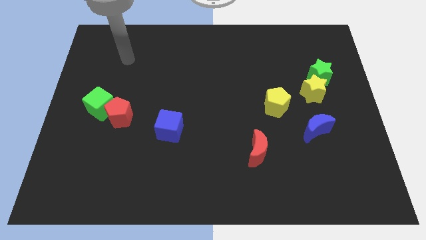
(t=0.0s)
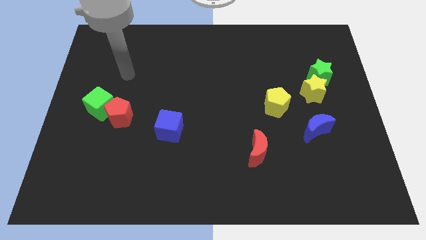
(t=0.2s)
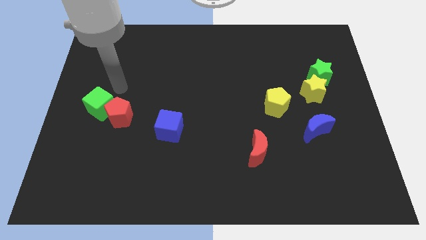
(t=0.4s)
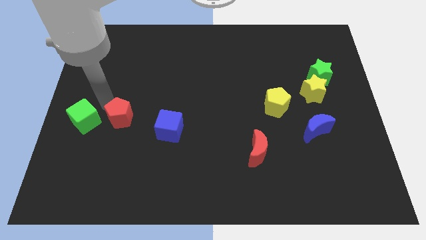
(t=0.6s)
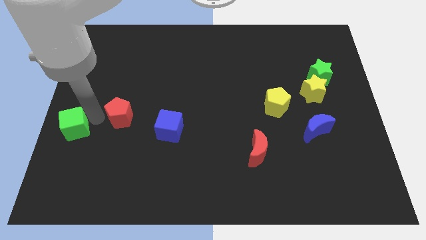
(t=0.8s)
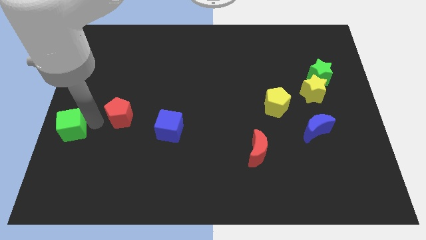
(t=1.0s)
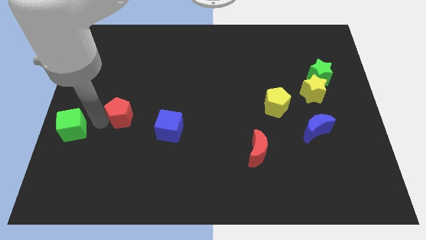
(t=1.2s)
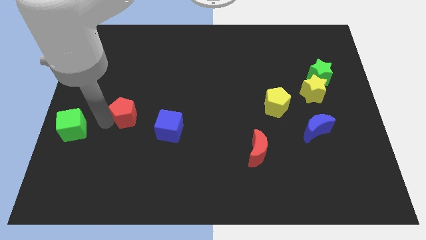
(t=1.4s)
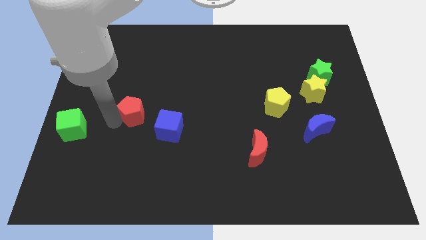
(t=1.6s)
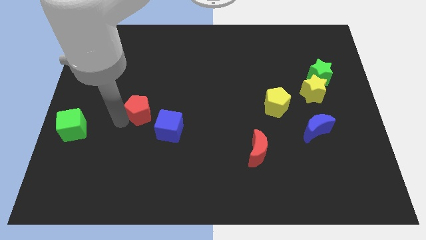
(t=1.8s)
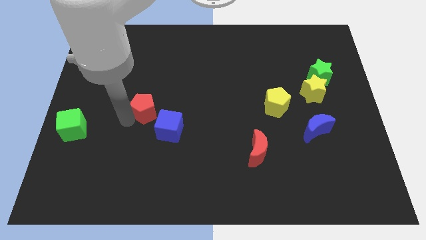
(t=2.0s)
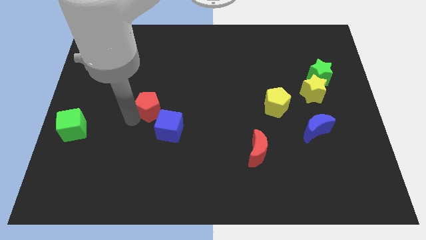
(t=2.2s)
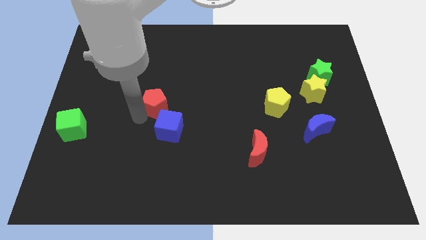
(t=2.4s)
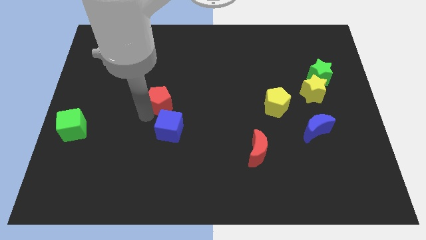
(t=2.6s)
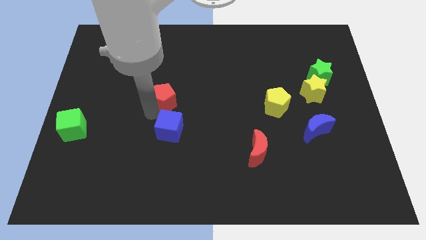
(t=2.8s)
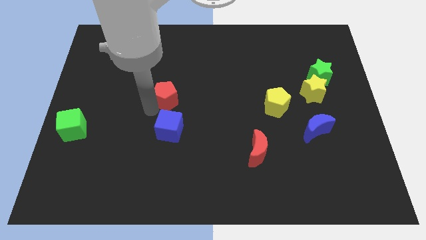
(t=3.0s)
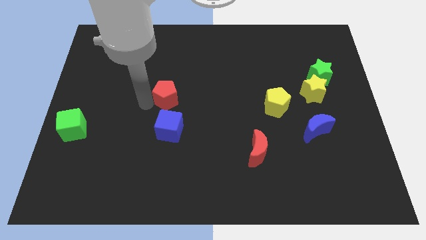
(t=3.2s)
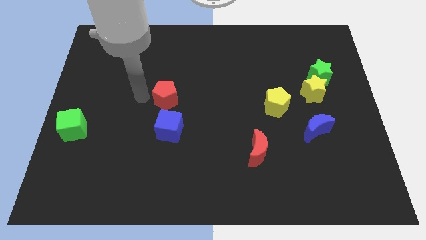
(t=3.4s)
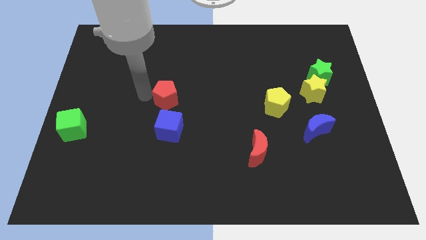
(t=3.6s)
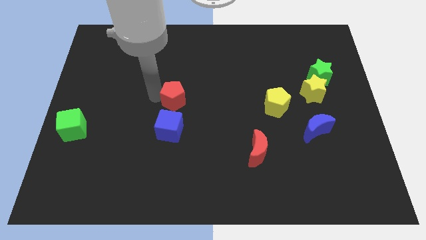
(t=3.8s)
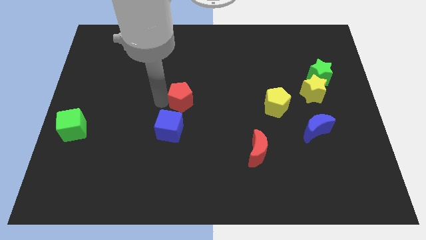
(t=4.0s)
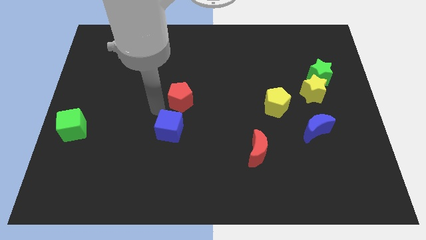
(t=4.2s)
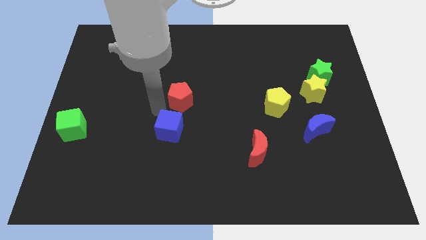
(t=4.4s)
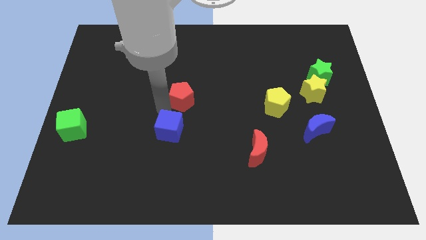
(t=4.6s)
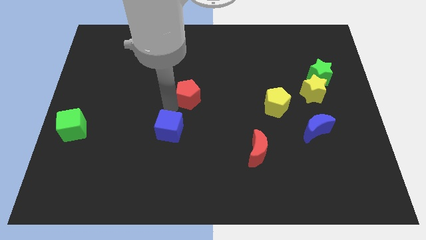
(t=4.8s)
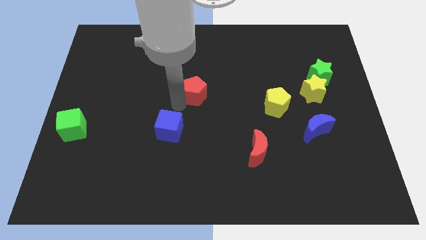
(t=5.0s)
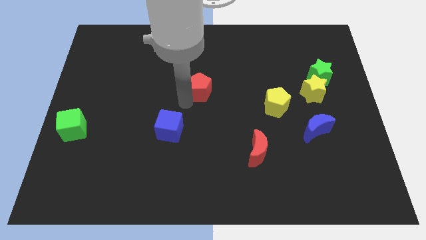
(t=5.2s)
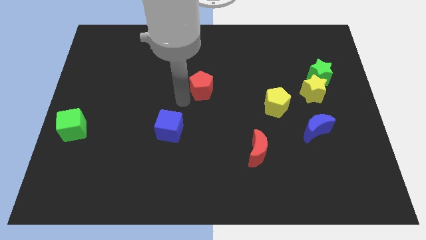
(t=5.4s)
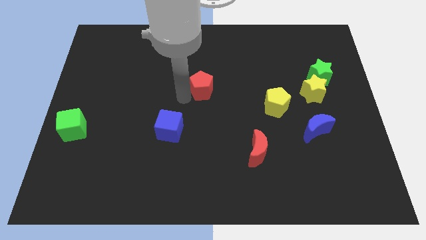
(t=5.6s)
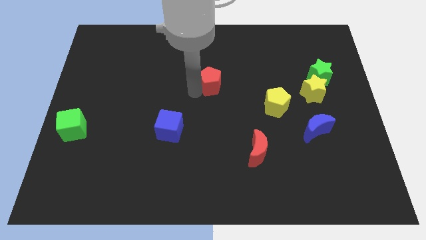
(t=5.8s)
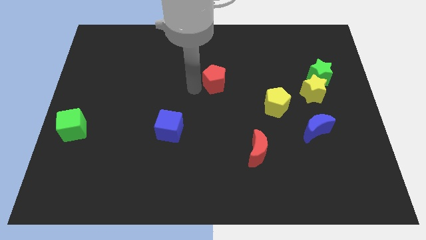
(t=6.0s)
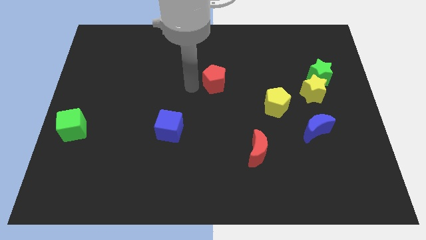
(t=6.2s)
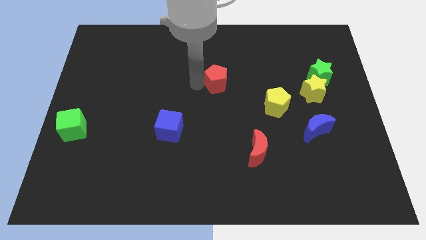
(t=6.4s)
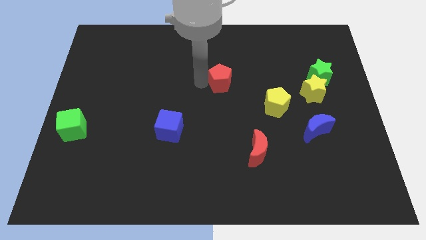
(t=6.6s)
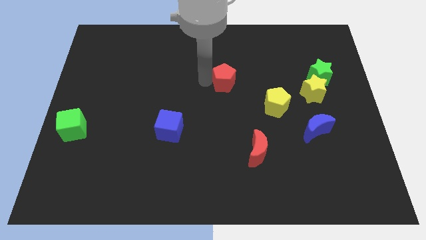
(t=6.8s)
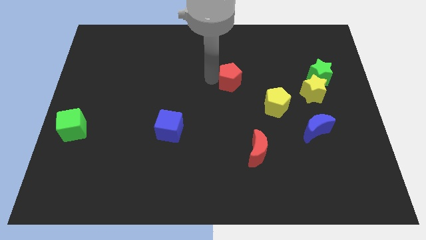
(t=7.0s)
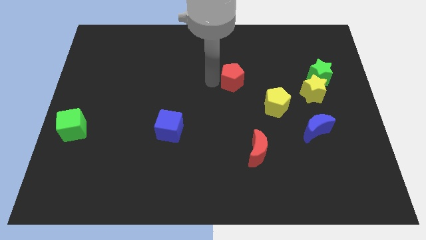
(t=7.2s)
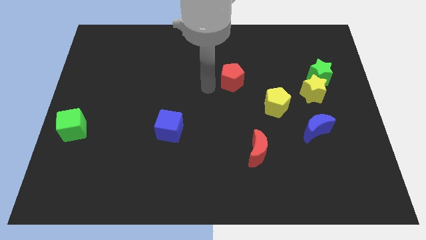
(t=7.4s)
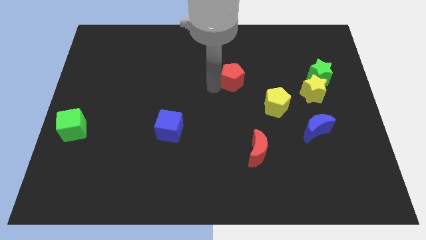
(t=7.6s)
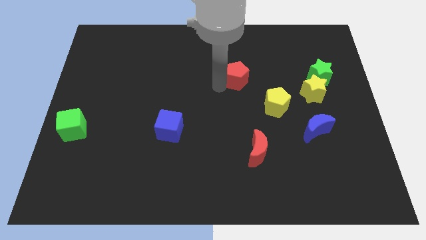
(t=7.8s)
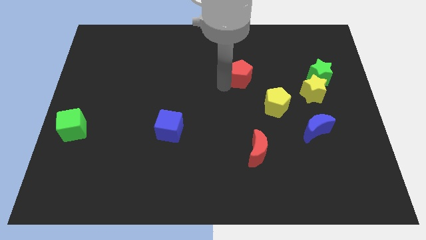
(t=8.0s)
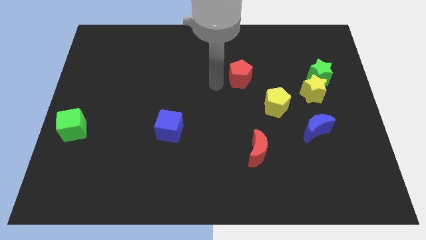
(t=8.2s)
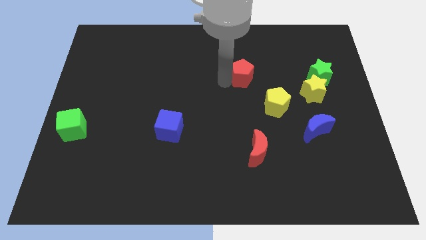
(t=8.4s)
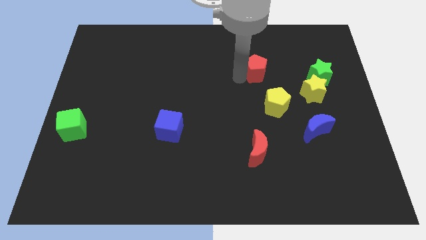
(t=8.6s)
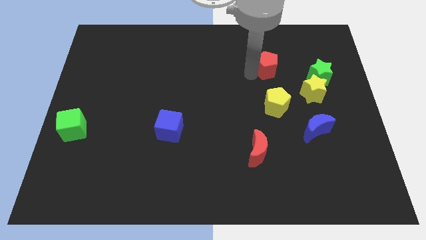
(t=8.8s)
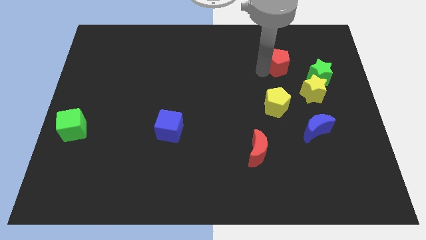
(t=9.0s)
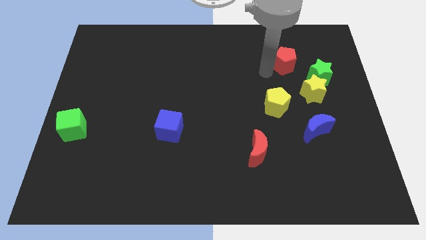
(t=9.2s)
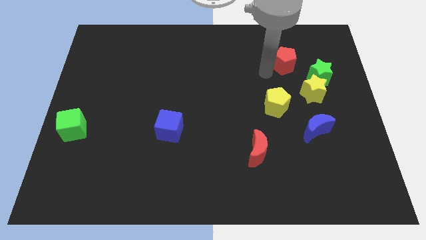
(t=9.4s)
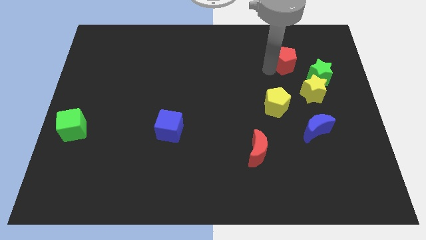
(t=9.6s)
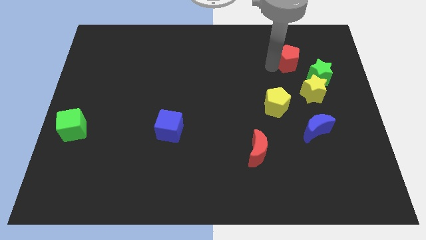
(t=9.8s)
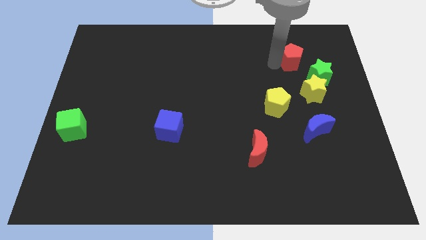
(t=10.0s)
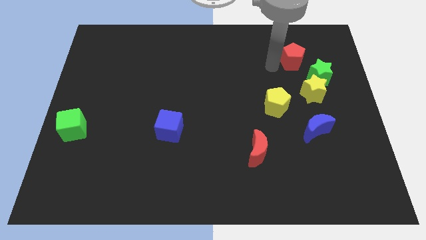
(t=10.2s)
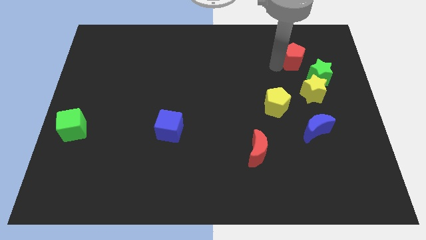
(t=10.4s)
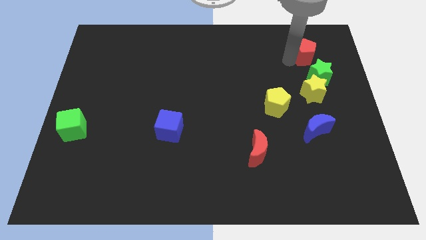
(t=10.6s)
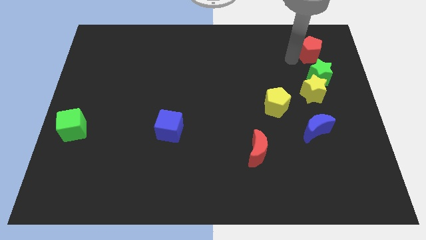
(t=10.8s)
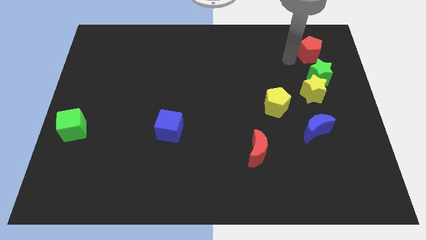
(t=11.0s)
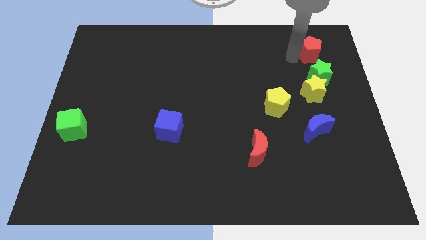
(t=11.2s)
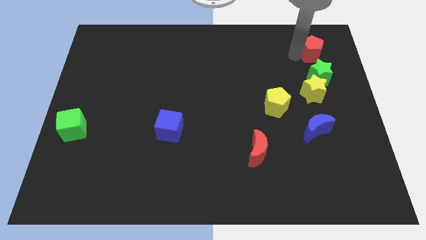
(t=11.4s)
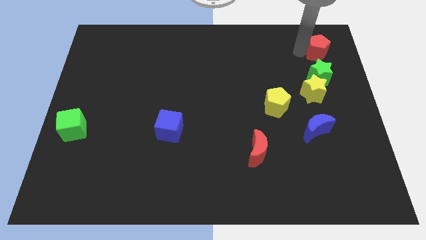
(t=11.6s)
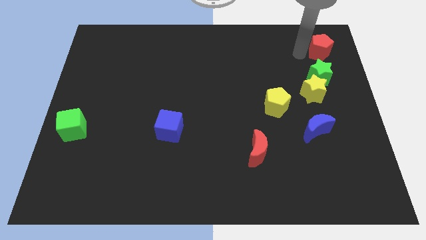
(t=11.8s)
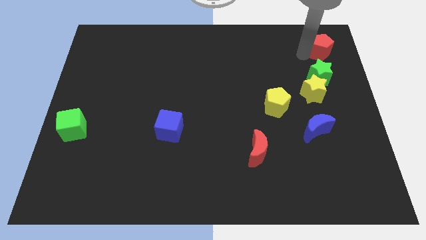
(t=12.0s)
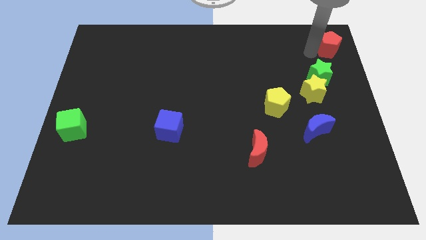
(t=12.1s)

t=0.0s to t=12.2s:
push the red pentagon to the top right corner

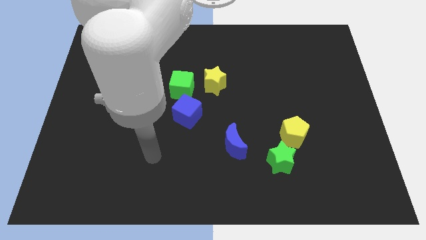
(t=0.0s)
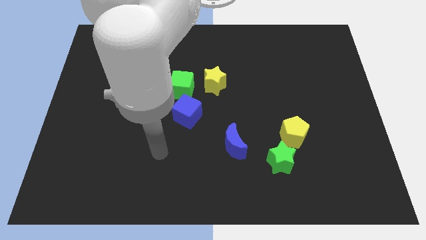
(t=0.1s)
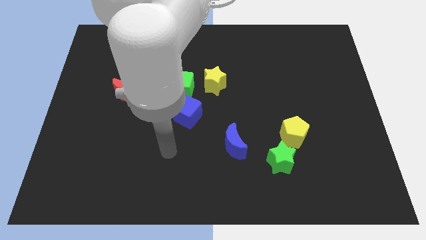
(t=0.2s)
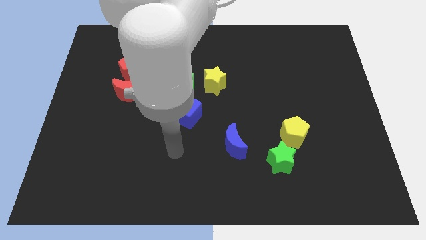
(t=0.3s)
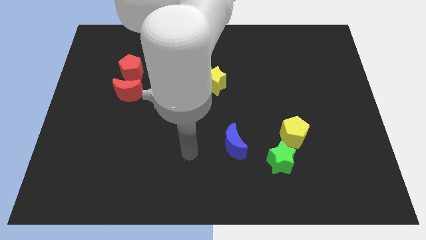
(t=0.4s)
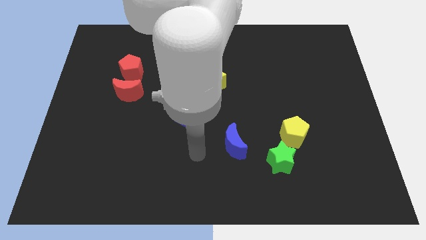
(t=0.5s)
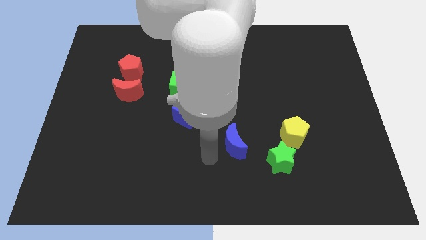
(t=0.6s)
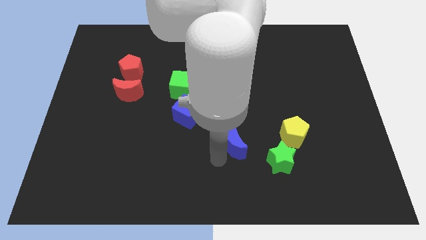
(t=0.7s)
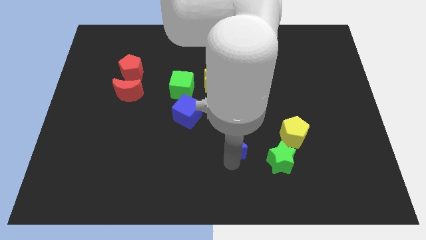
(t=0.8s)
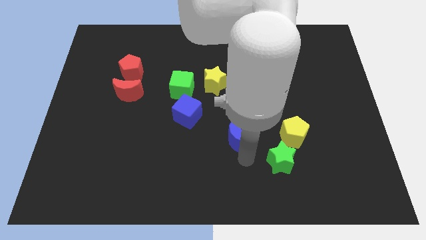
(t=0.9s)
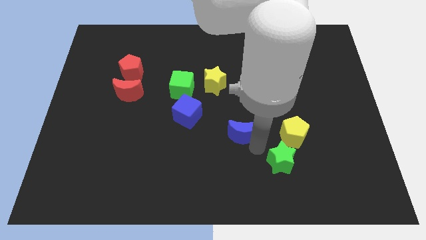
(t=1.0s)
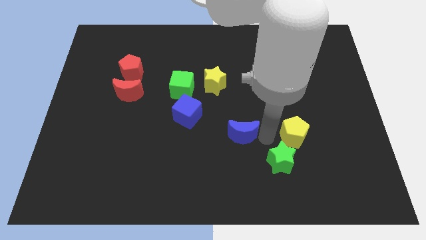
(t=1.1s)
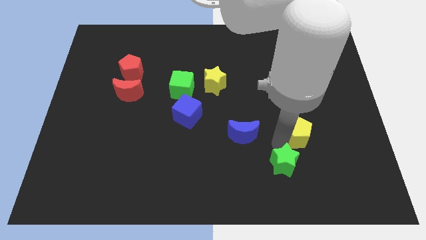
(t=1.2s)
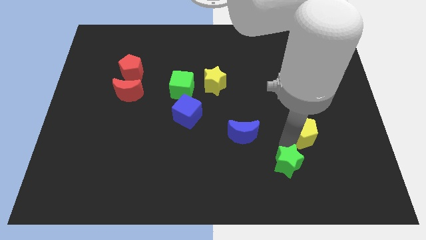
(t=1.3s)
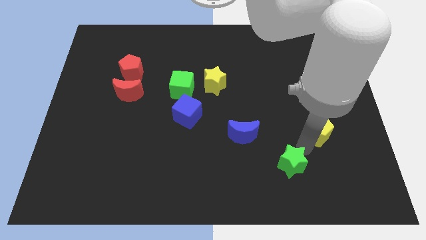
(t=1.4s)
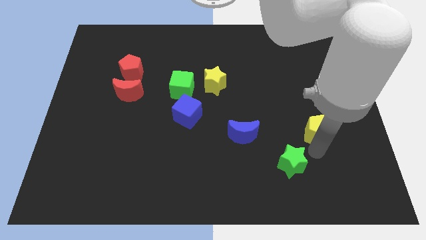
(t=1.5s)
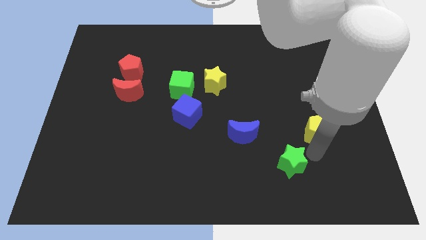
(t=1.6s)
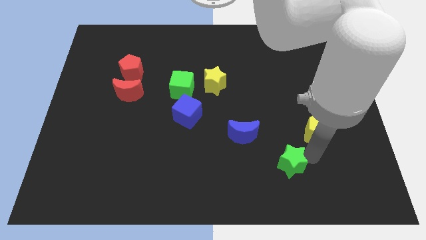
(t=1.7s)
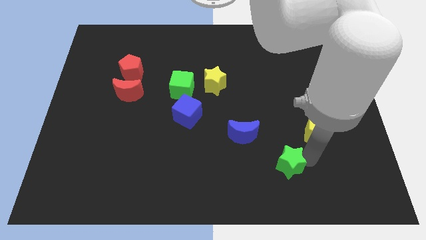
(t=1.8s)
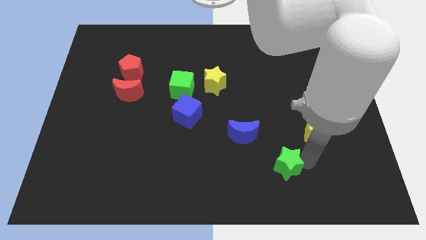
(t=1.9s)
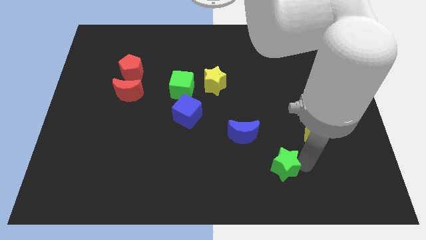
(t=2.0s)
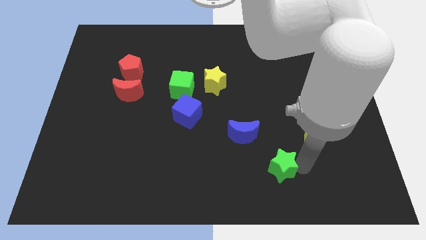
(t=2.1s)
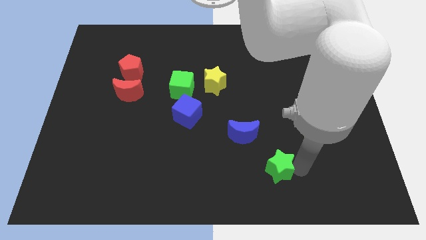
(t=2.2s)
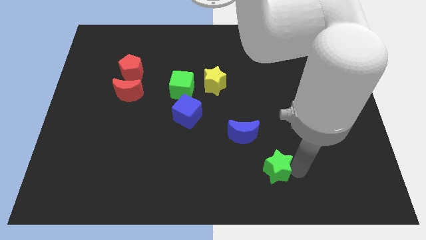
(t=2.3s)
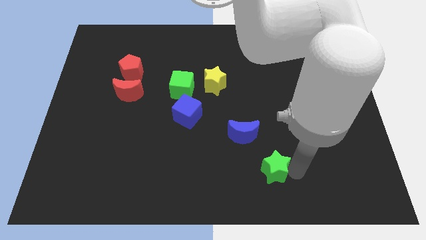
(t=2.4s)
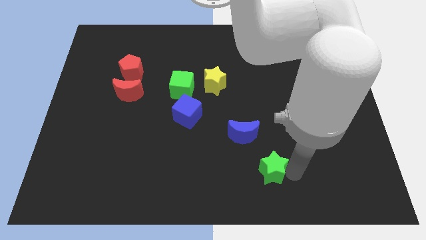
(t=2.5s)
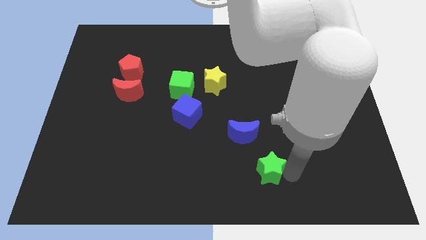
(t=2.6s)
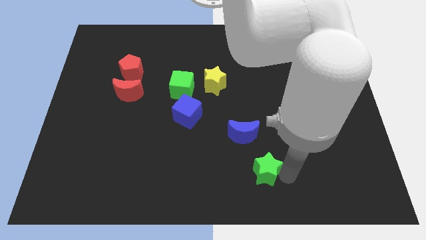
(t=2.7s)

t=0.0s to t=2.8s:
slide the green star to the bottom
